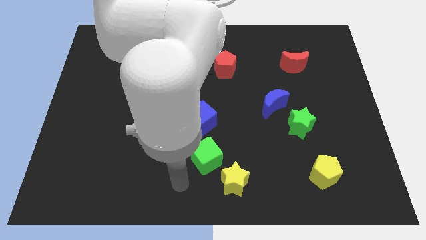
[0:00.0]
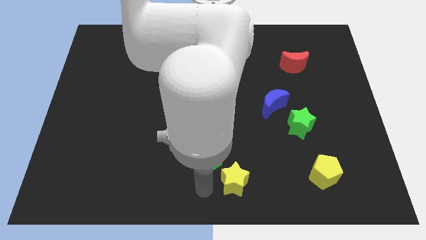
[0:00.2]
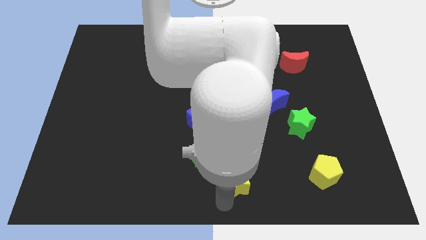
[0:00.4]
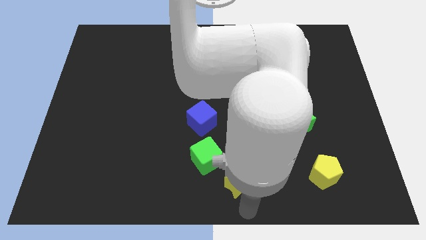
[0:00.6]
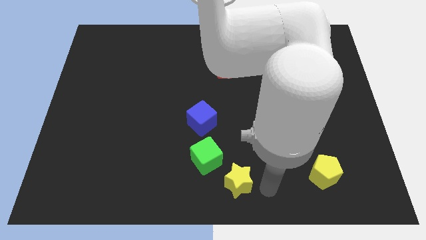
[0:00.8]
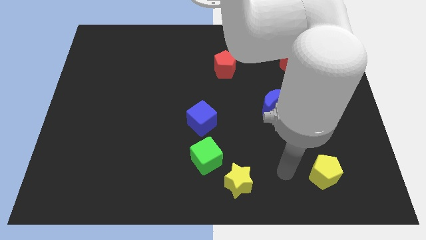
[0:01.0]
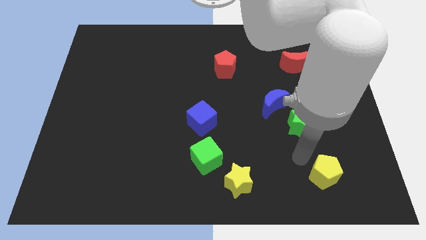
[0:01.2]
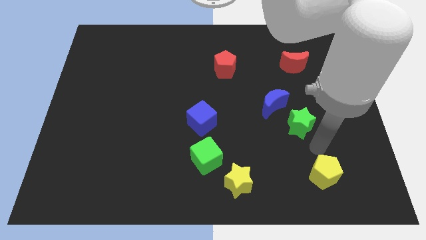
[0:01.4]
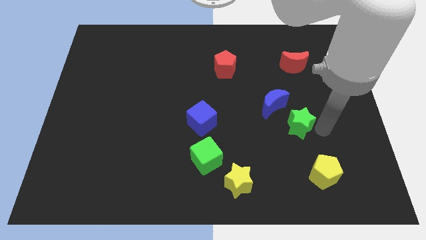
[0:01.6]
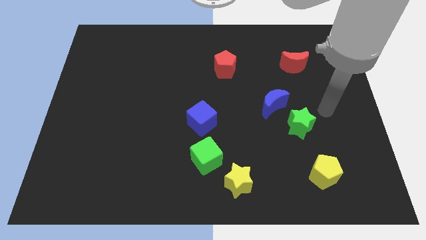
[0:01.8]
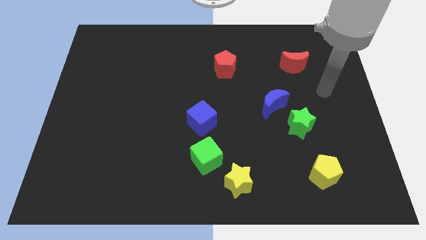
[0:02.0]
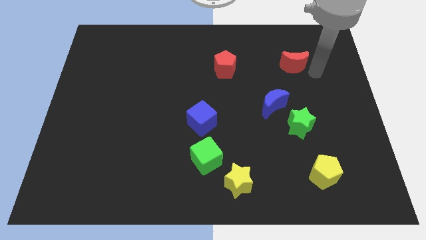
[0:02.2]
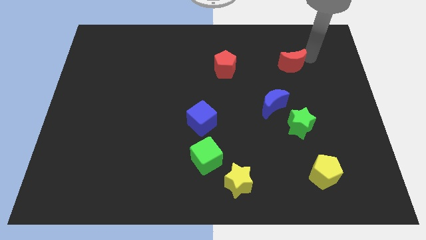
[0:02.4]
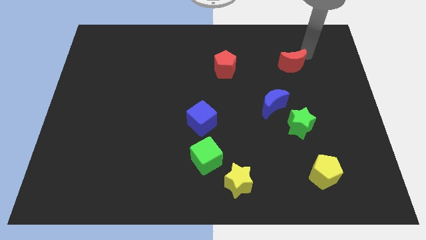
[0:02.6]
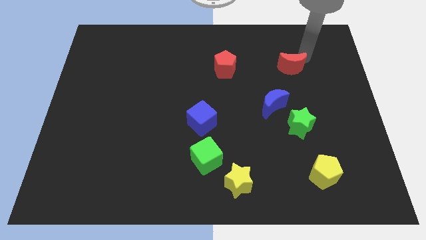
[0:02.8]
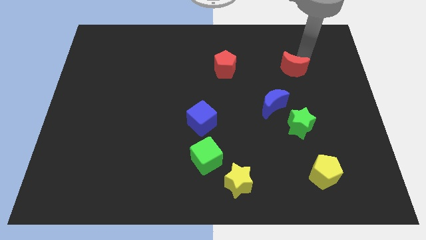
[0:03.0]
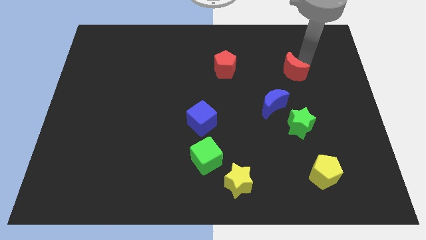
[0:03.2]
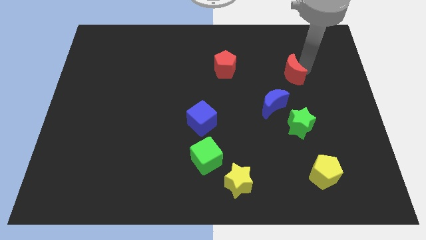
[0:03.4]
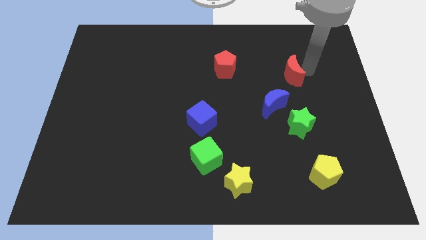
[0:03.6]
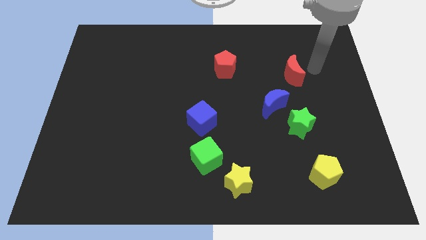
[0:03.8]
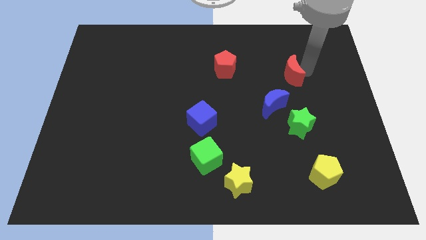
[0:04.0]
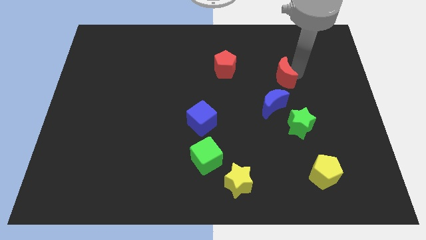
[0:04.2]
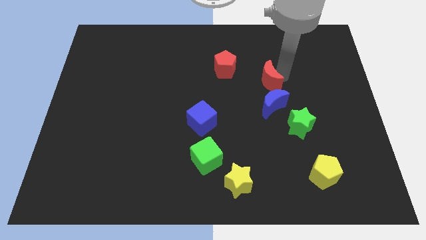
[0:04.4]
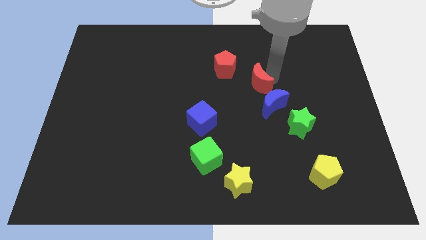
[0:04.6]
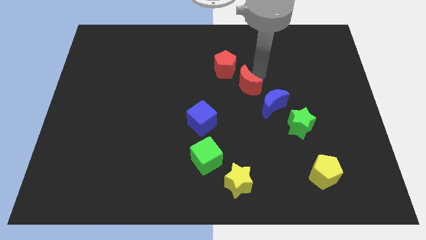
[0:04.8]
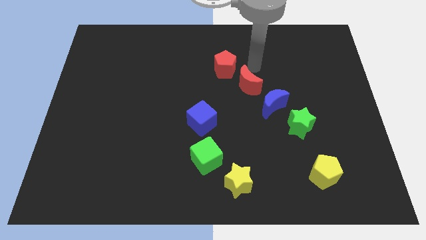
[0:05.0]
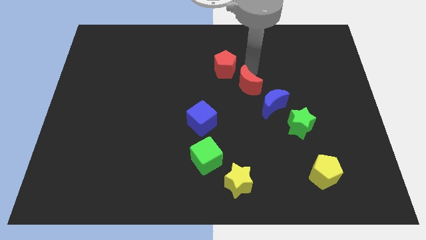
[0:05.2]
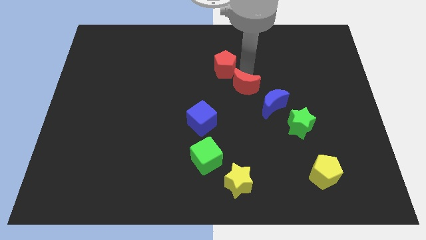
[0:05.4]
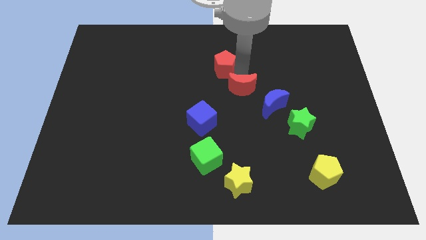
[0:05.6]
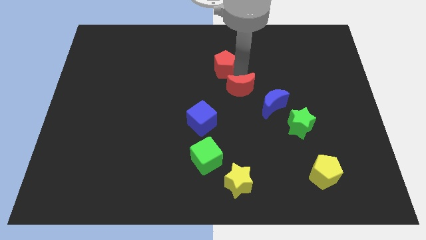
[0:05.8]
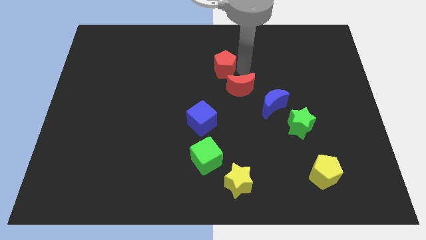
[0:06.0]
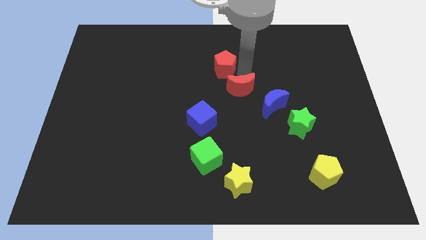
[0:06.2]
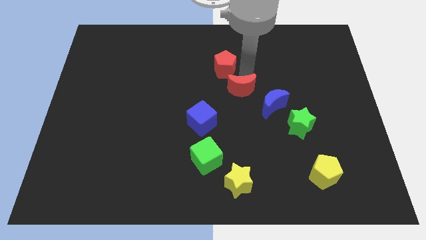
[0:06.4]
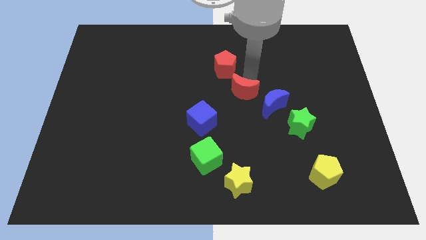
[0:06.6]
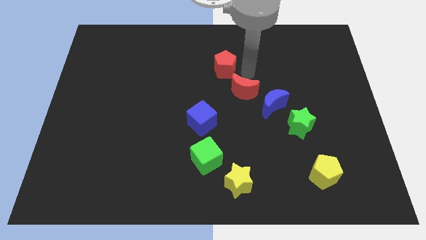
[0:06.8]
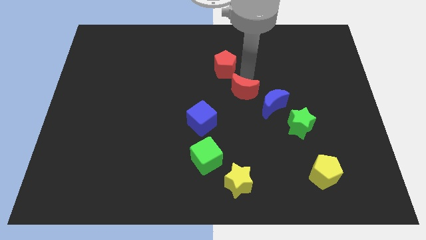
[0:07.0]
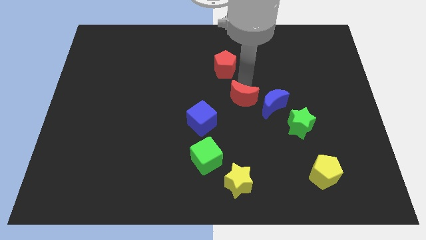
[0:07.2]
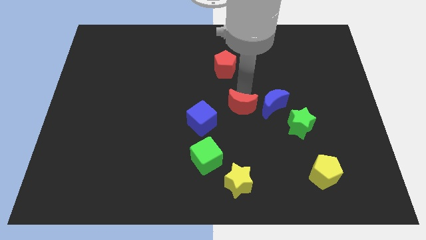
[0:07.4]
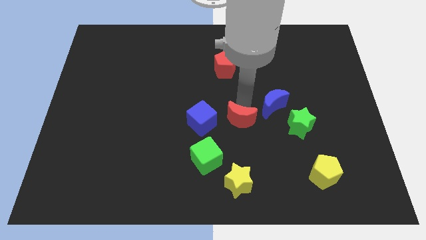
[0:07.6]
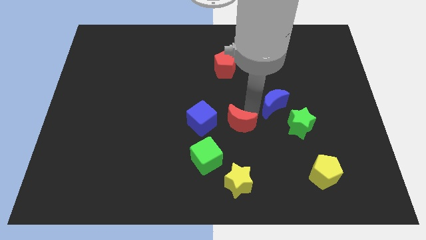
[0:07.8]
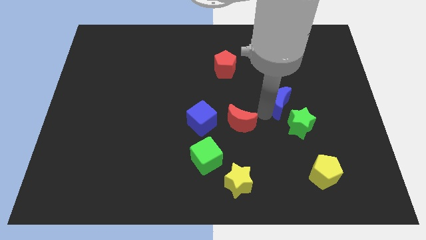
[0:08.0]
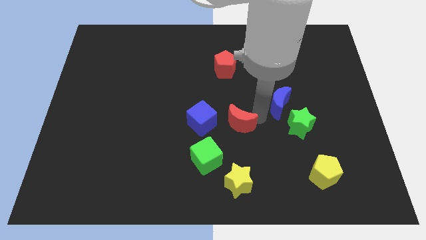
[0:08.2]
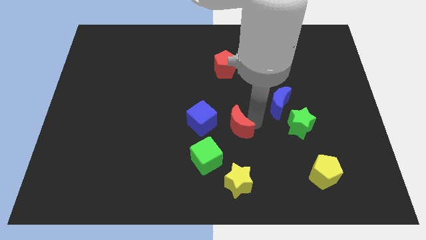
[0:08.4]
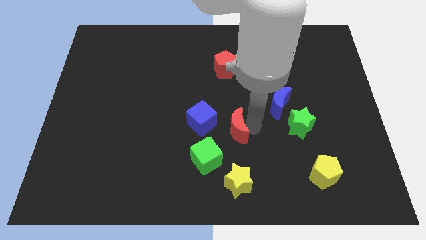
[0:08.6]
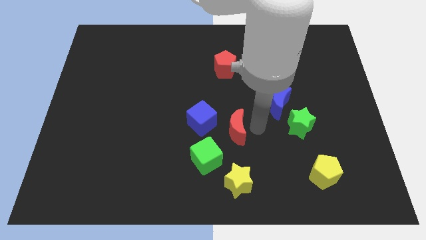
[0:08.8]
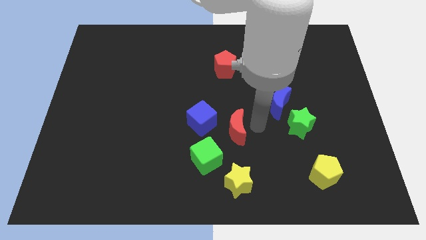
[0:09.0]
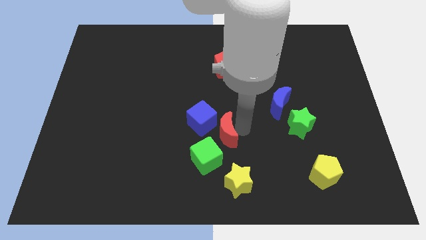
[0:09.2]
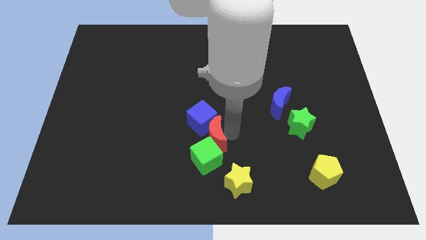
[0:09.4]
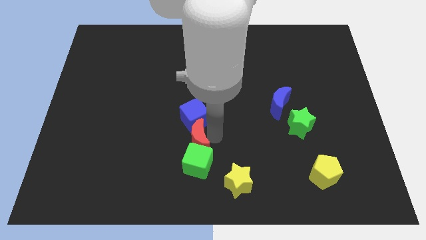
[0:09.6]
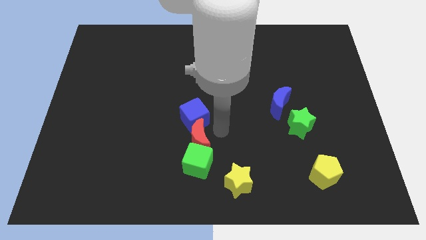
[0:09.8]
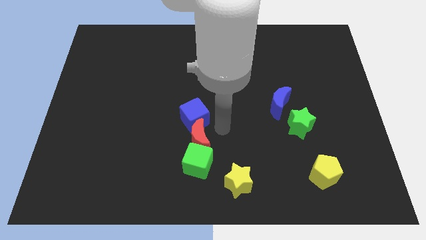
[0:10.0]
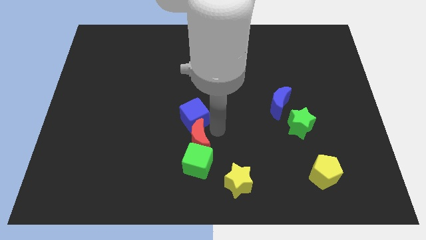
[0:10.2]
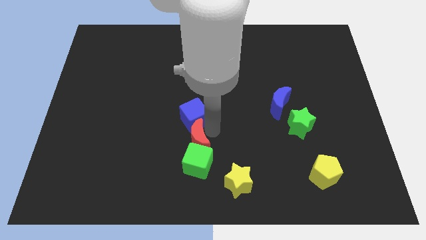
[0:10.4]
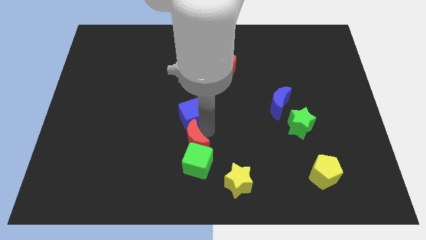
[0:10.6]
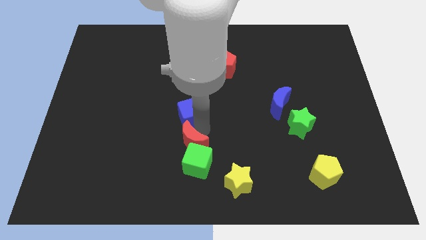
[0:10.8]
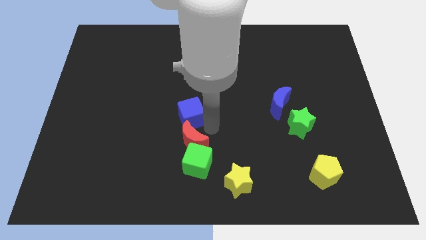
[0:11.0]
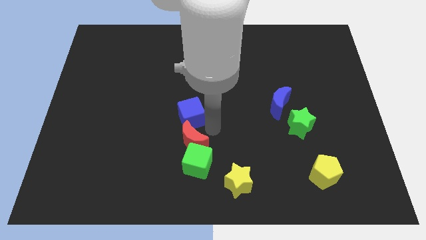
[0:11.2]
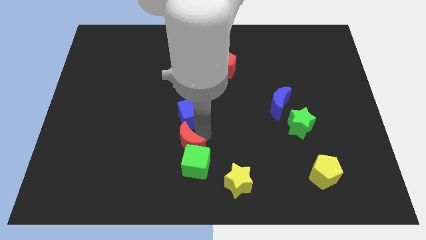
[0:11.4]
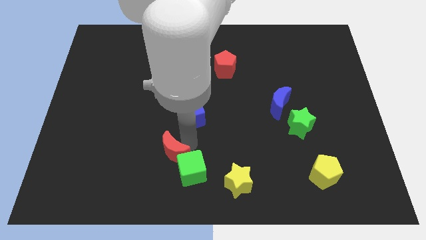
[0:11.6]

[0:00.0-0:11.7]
put the red moon left of the green cube

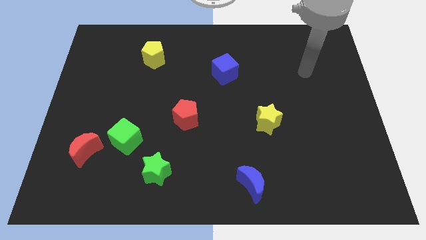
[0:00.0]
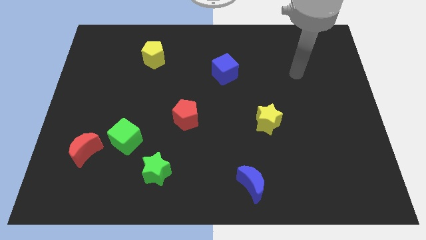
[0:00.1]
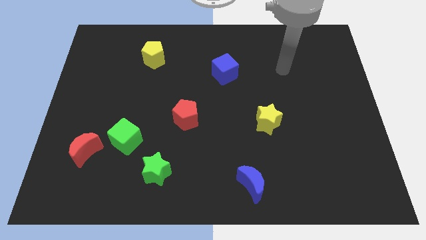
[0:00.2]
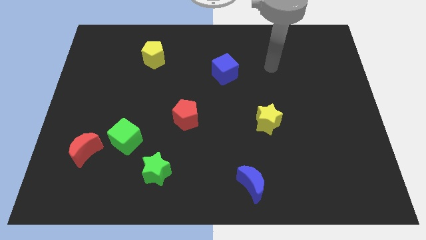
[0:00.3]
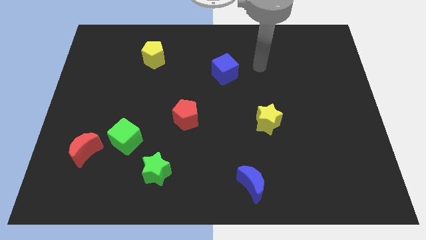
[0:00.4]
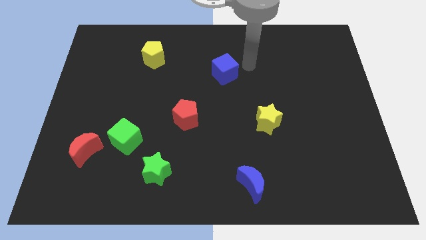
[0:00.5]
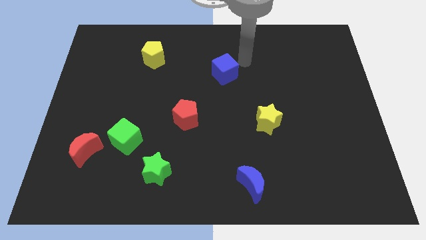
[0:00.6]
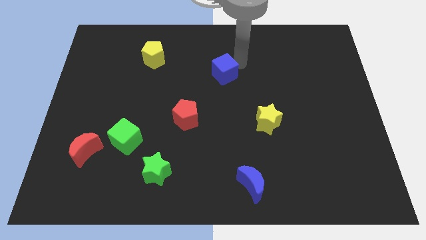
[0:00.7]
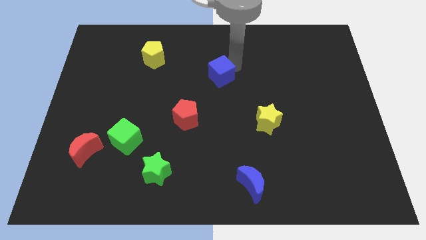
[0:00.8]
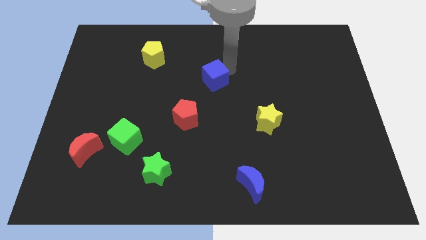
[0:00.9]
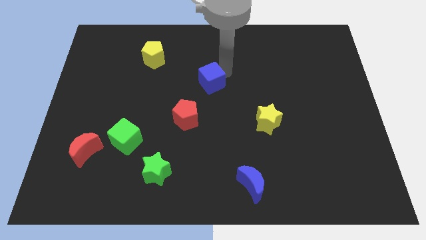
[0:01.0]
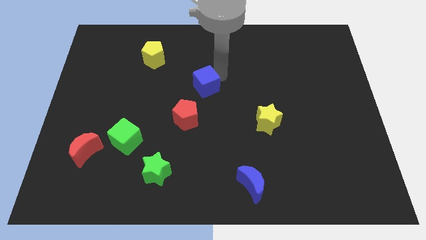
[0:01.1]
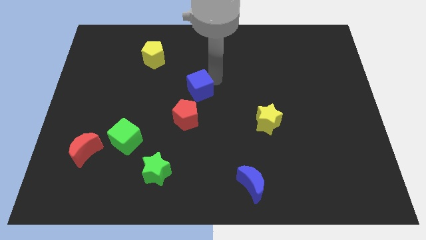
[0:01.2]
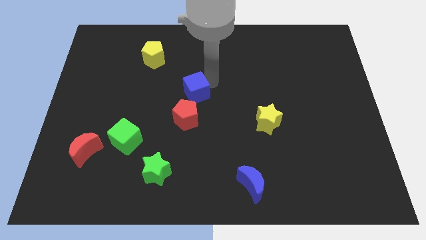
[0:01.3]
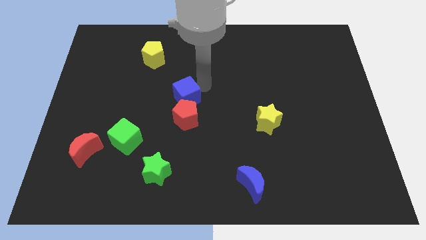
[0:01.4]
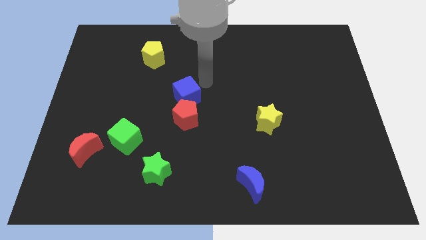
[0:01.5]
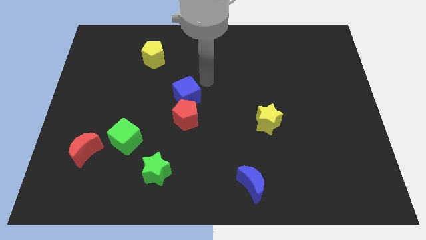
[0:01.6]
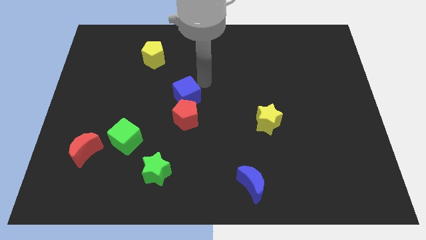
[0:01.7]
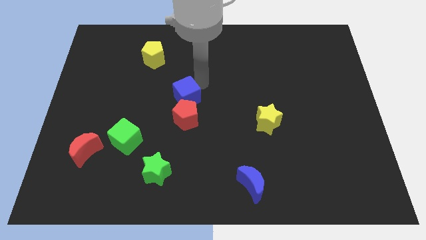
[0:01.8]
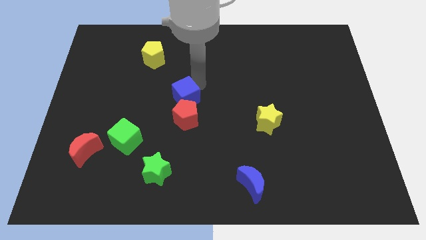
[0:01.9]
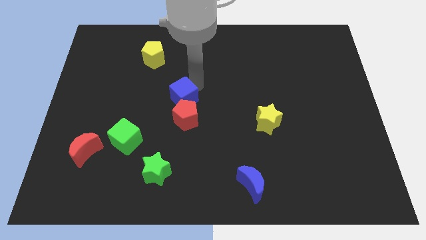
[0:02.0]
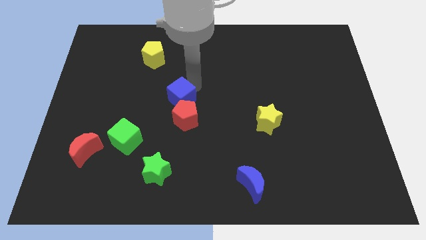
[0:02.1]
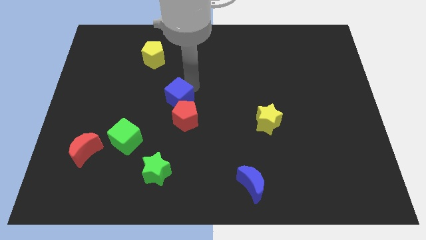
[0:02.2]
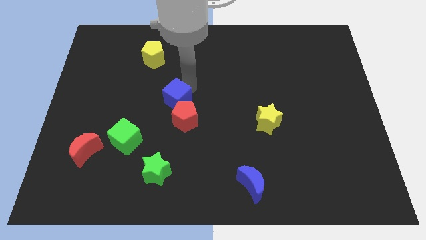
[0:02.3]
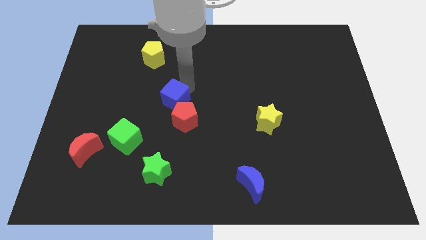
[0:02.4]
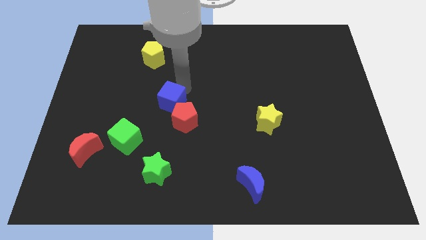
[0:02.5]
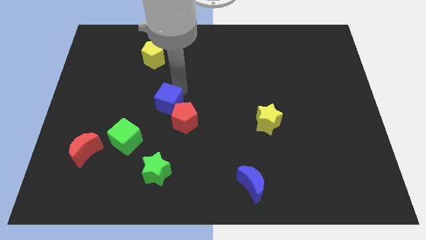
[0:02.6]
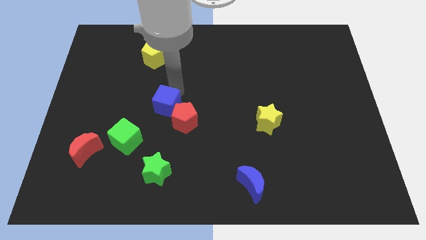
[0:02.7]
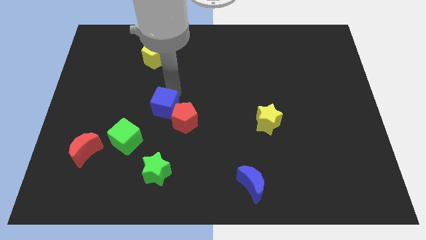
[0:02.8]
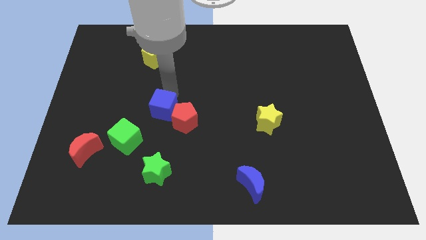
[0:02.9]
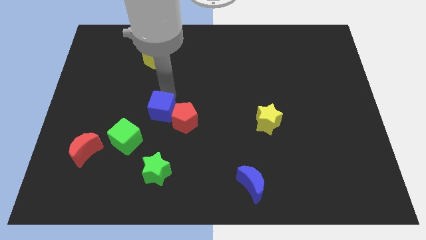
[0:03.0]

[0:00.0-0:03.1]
slide the blue cube to the top side of the green star
